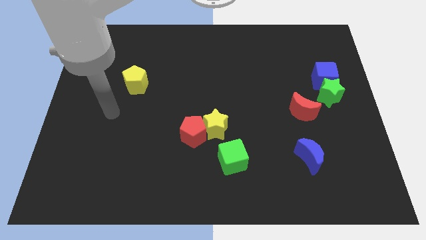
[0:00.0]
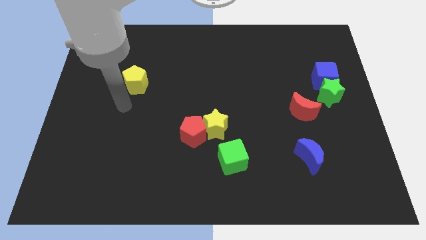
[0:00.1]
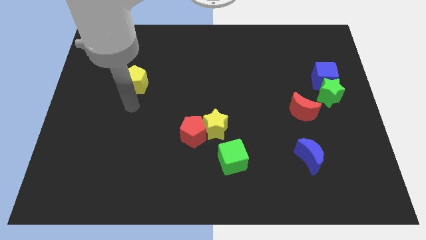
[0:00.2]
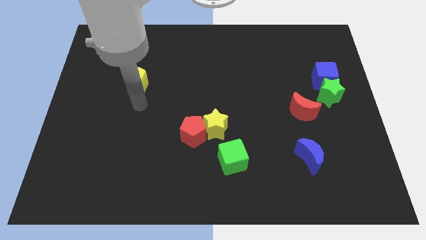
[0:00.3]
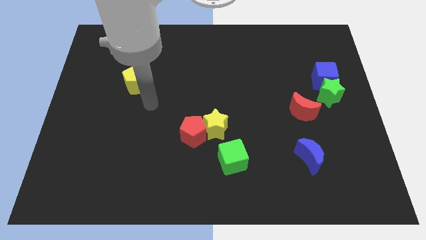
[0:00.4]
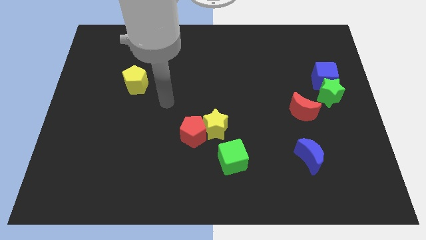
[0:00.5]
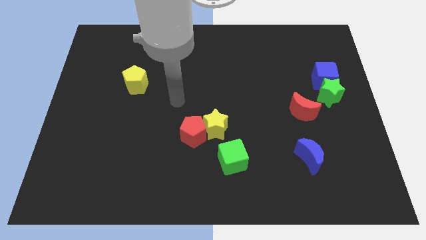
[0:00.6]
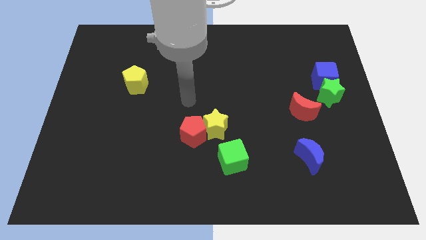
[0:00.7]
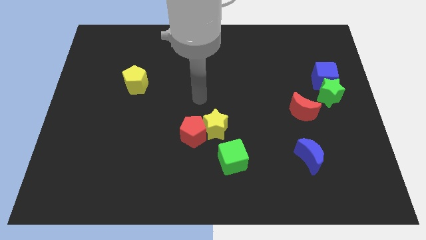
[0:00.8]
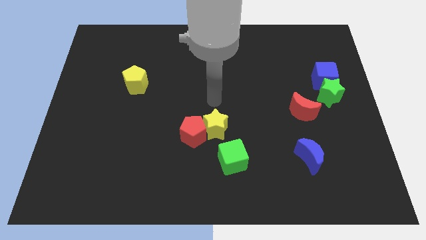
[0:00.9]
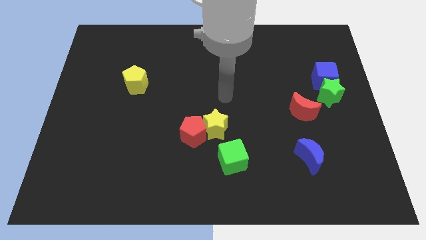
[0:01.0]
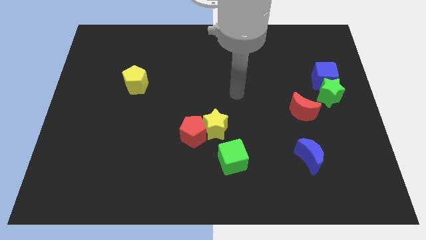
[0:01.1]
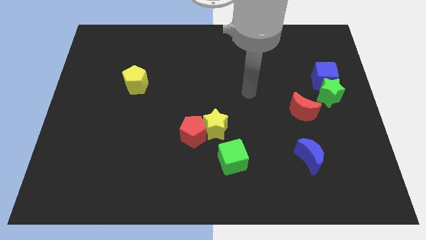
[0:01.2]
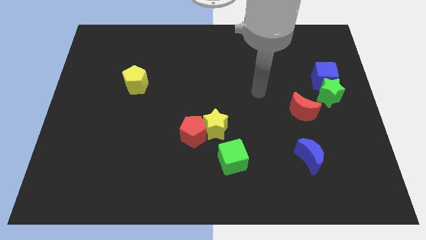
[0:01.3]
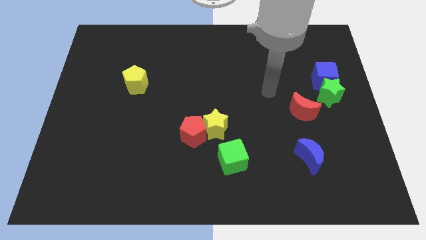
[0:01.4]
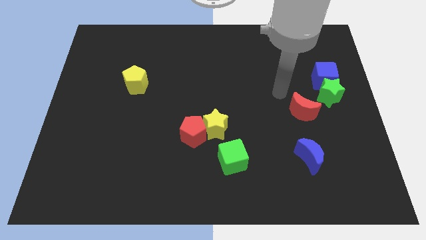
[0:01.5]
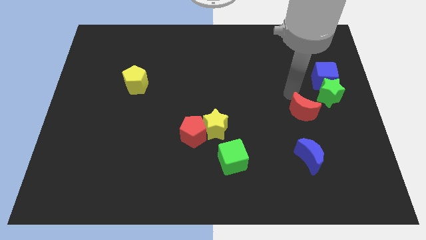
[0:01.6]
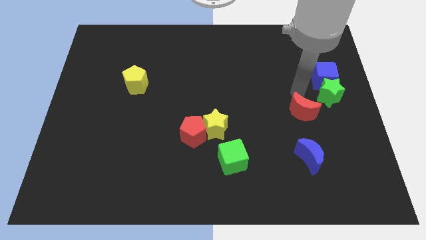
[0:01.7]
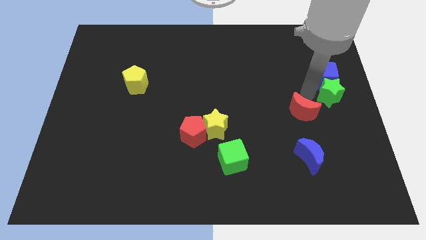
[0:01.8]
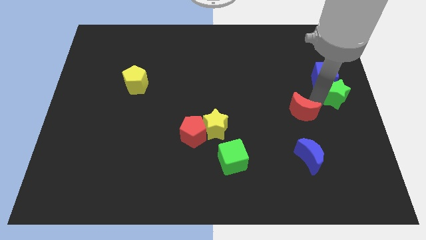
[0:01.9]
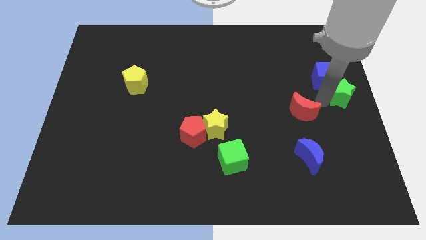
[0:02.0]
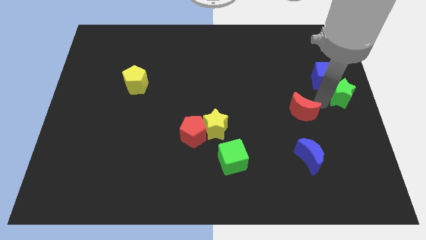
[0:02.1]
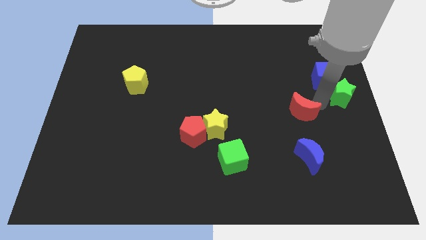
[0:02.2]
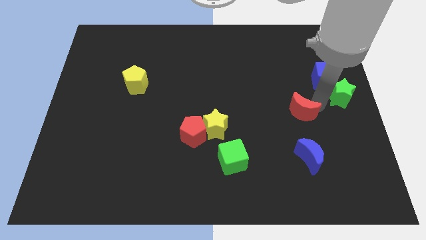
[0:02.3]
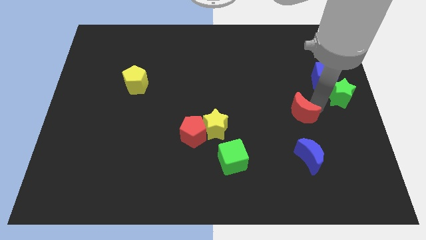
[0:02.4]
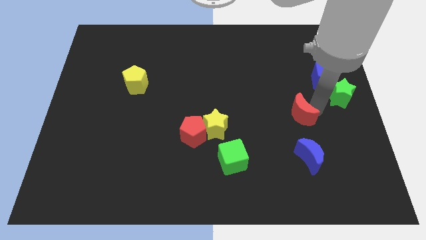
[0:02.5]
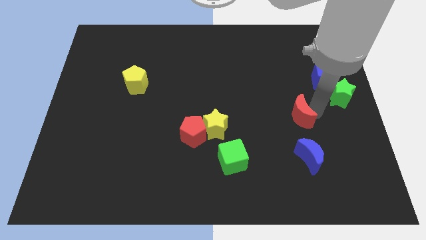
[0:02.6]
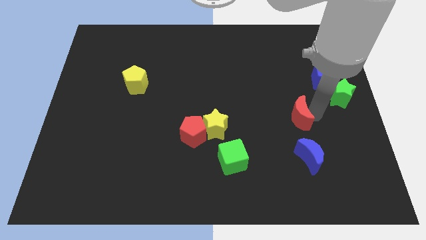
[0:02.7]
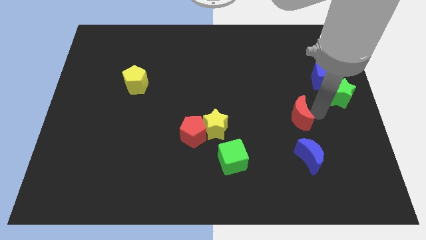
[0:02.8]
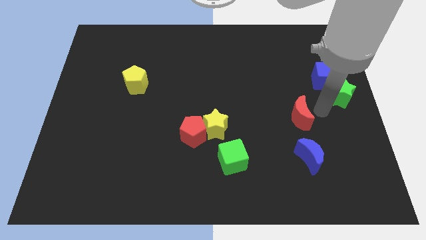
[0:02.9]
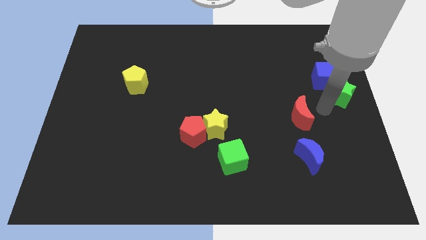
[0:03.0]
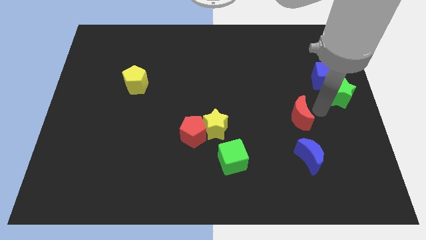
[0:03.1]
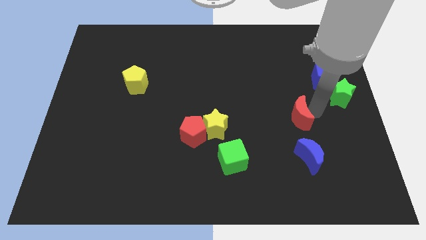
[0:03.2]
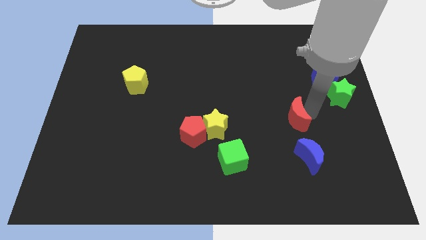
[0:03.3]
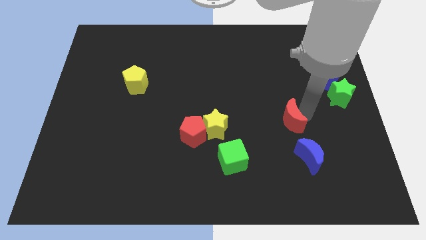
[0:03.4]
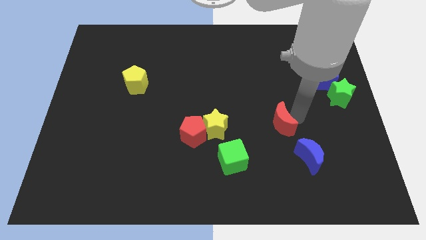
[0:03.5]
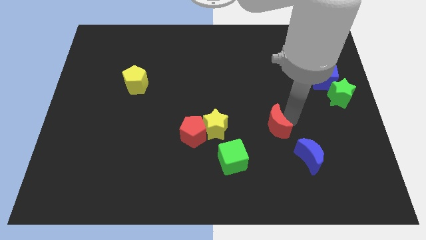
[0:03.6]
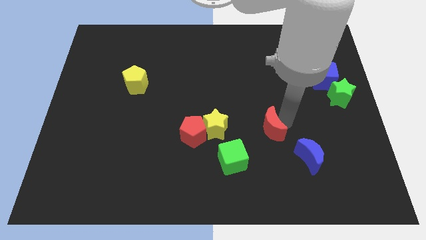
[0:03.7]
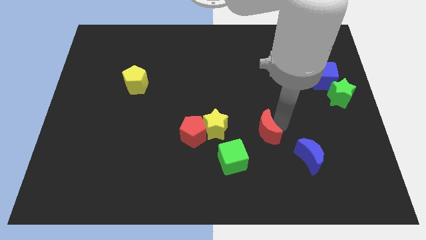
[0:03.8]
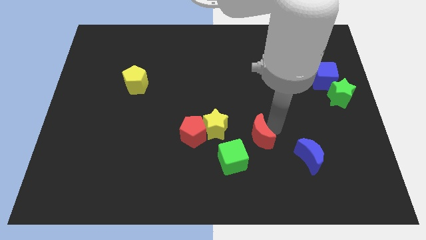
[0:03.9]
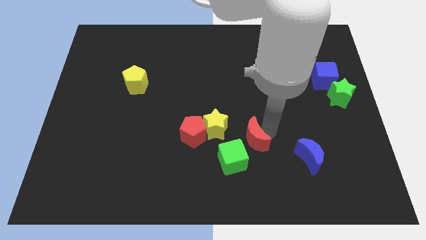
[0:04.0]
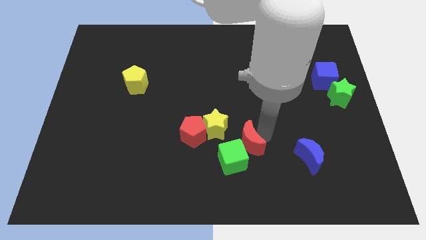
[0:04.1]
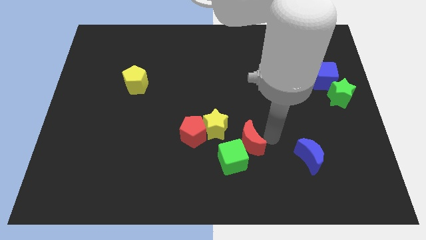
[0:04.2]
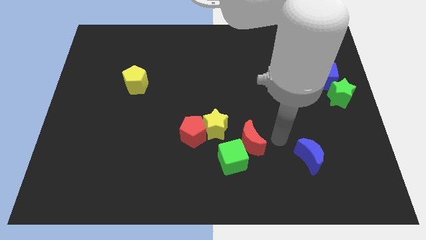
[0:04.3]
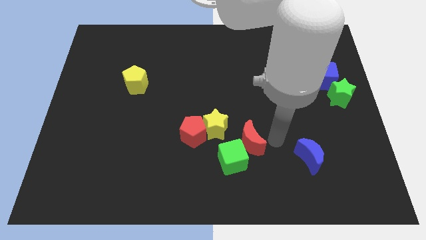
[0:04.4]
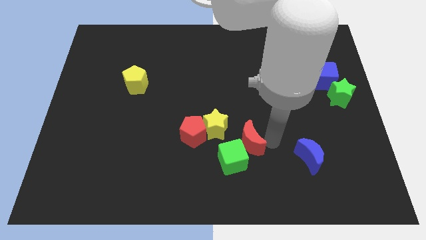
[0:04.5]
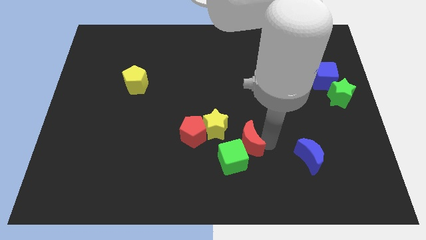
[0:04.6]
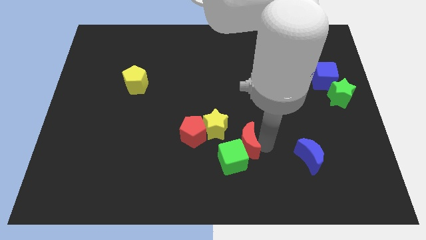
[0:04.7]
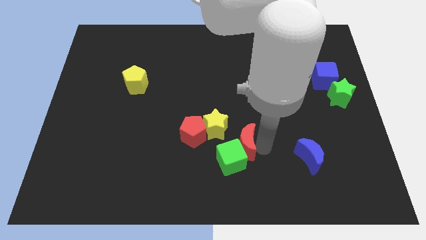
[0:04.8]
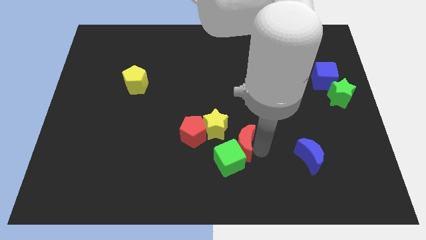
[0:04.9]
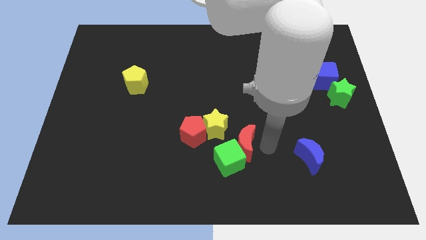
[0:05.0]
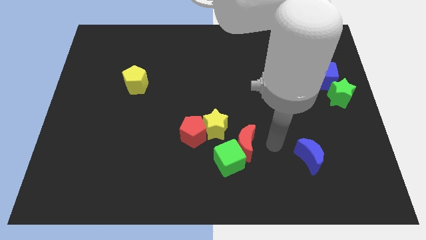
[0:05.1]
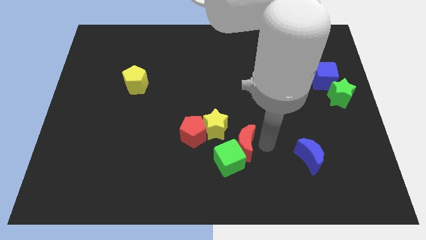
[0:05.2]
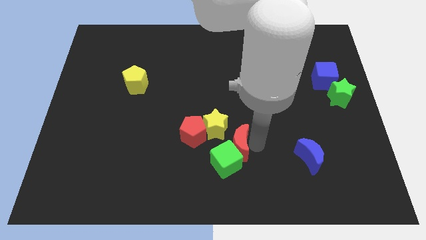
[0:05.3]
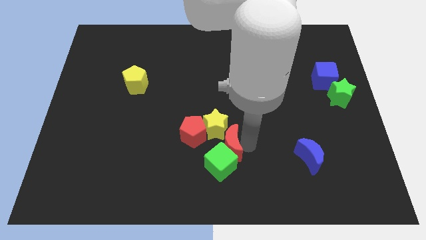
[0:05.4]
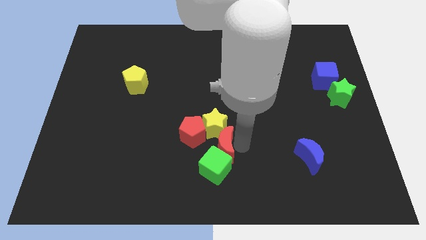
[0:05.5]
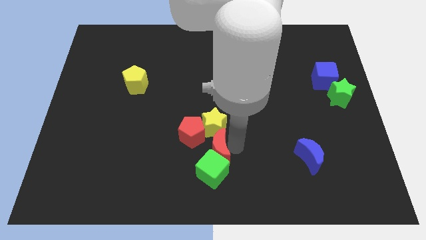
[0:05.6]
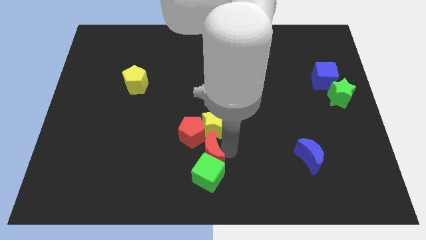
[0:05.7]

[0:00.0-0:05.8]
slide the red moon next to the red pentagon

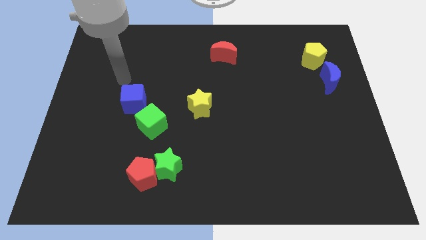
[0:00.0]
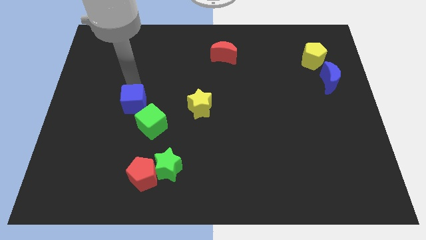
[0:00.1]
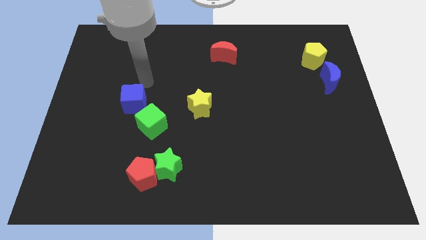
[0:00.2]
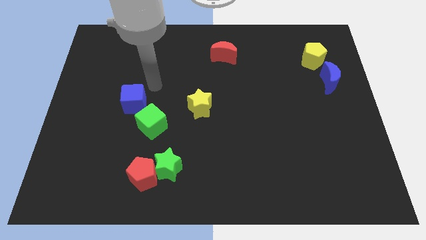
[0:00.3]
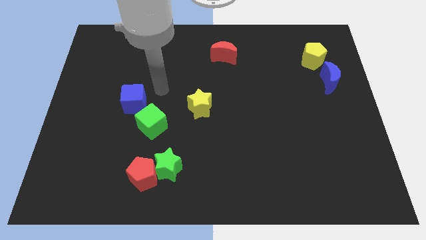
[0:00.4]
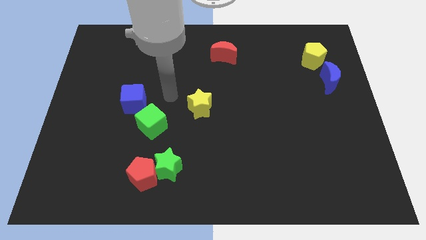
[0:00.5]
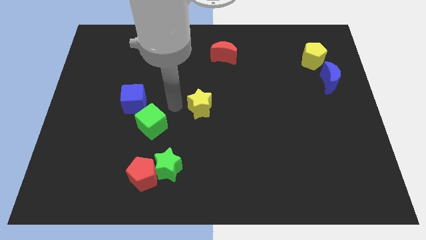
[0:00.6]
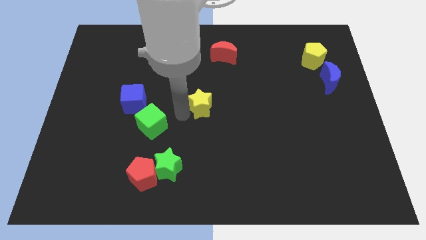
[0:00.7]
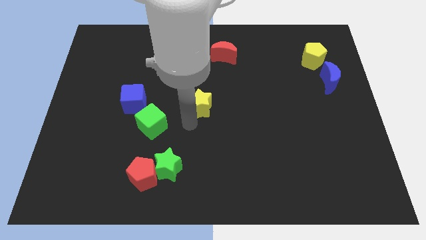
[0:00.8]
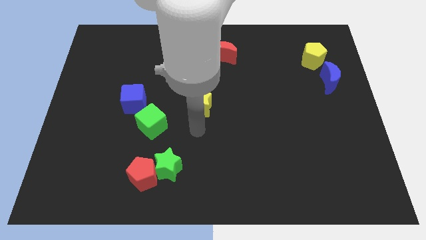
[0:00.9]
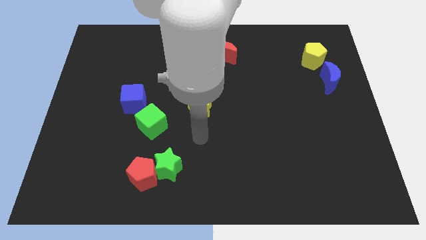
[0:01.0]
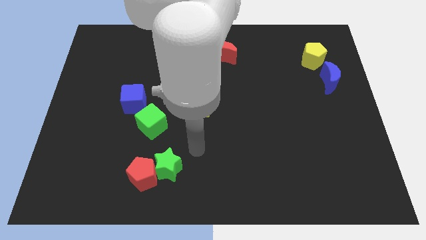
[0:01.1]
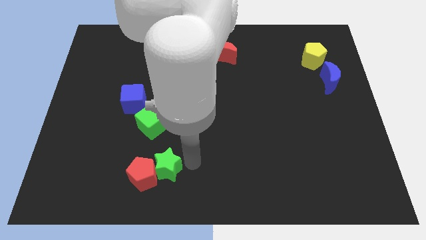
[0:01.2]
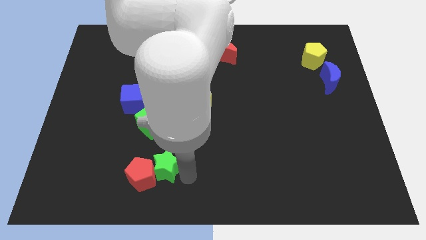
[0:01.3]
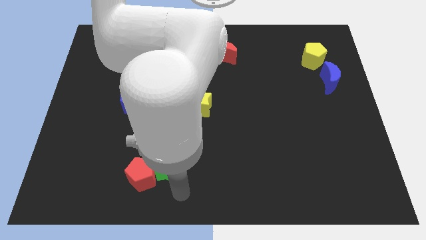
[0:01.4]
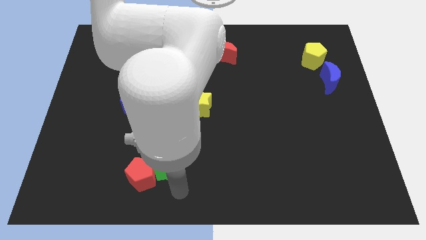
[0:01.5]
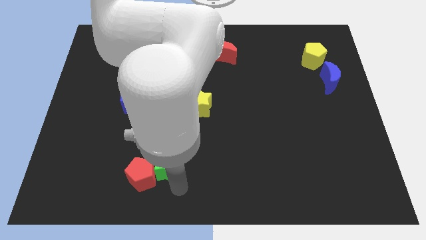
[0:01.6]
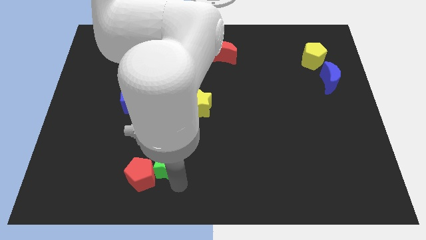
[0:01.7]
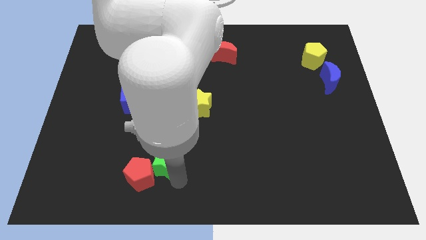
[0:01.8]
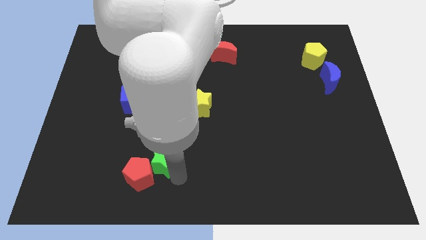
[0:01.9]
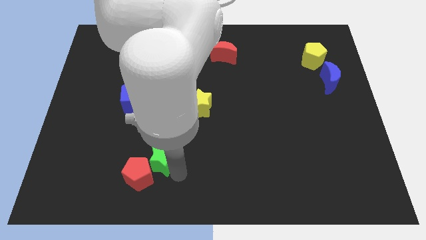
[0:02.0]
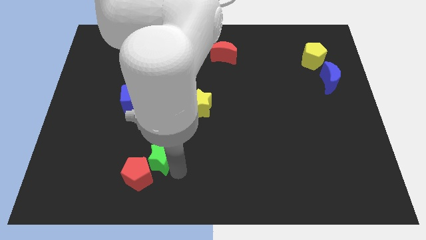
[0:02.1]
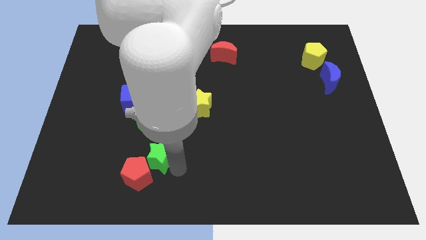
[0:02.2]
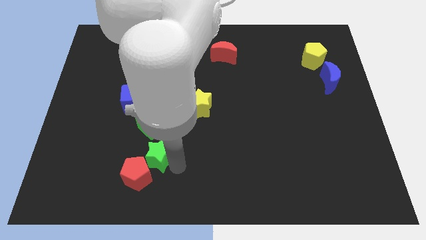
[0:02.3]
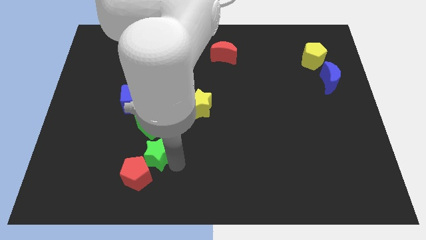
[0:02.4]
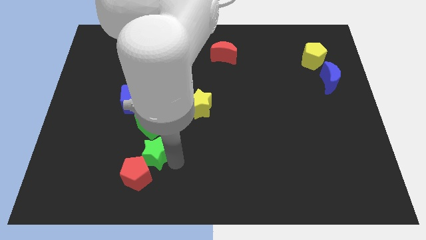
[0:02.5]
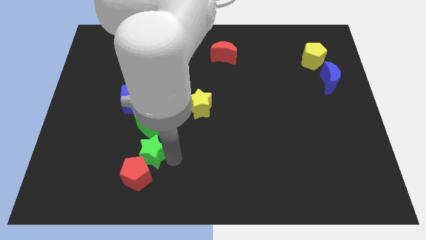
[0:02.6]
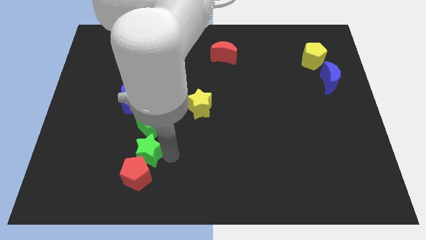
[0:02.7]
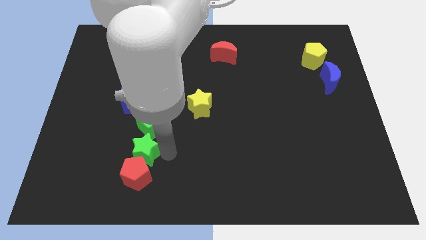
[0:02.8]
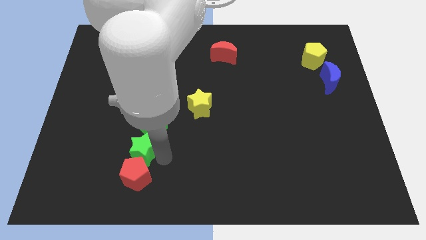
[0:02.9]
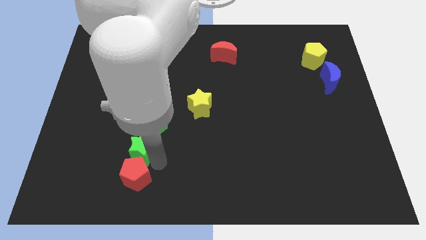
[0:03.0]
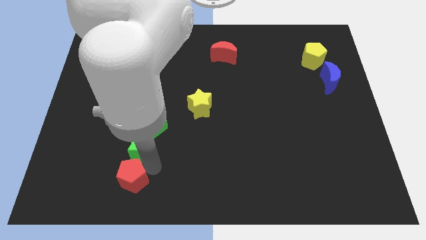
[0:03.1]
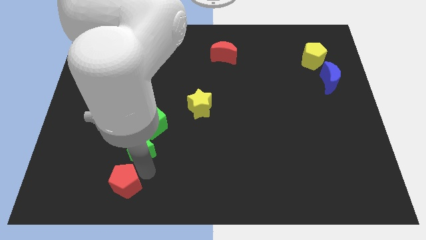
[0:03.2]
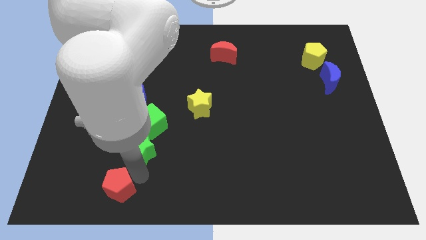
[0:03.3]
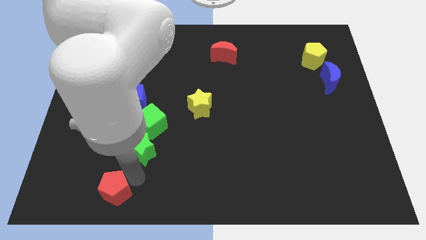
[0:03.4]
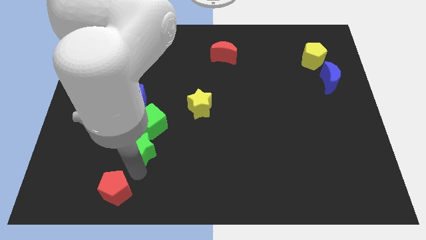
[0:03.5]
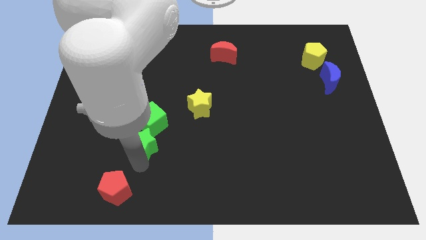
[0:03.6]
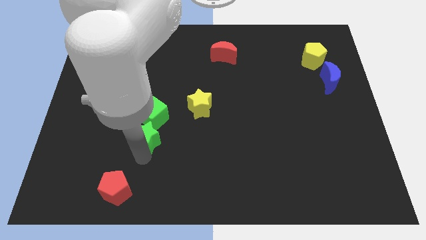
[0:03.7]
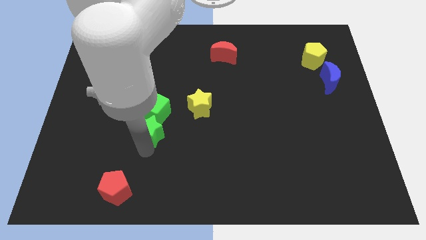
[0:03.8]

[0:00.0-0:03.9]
slide the green star close to the green cube
